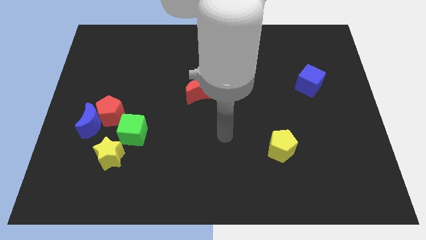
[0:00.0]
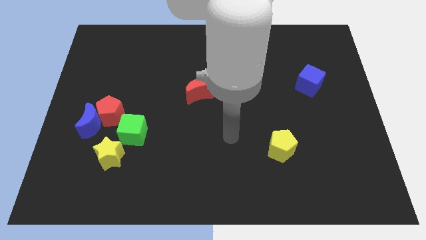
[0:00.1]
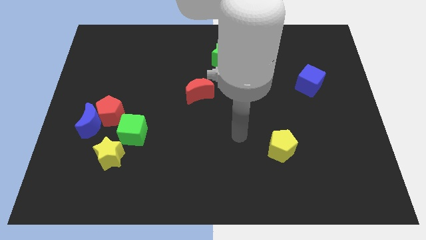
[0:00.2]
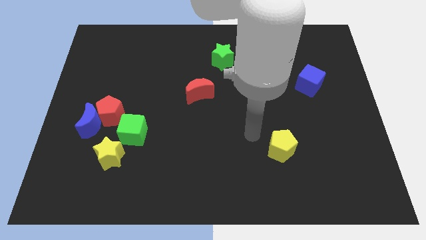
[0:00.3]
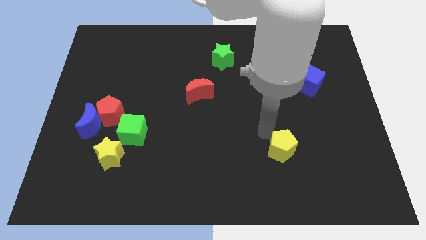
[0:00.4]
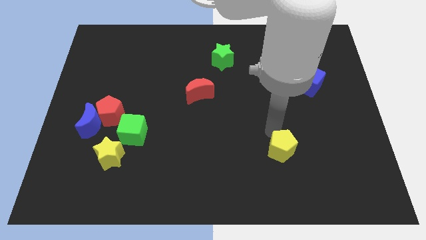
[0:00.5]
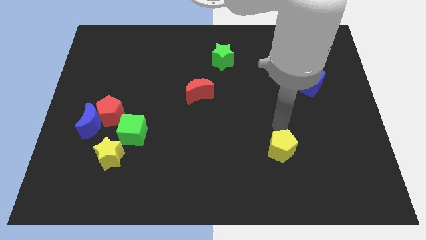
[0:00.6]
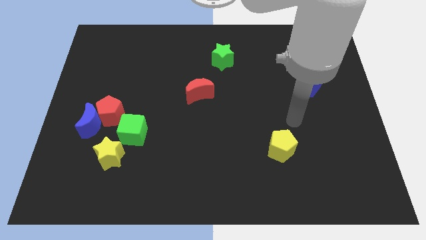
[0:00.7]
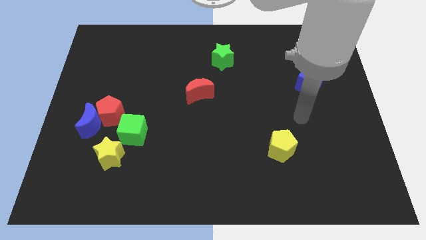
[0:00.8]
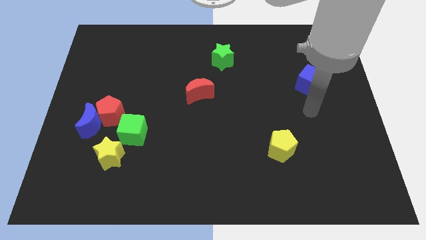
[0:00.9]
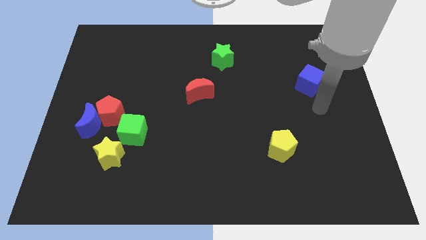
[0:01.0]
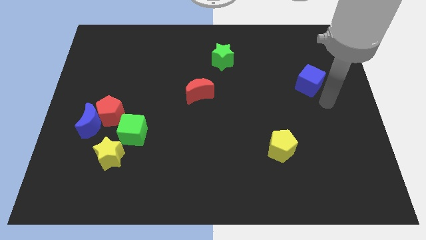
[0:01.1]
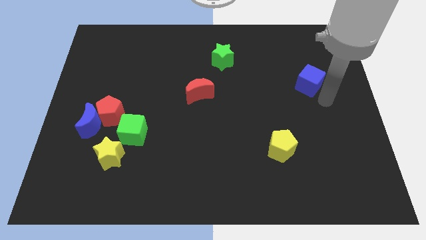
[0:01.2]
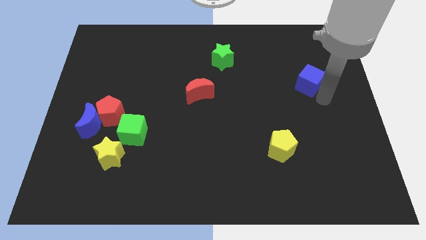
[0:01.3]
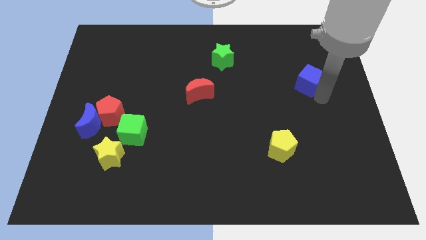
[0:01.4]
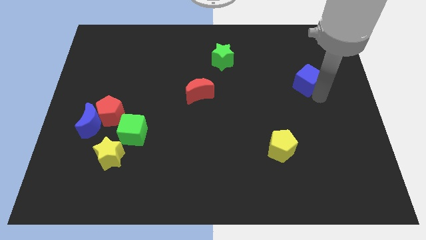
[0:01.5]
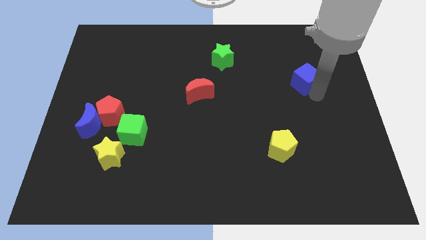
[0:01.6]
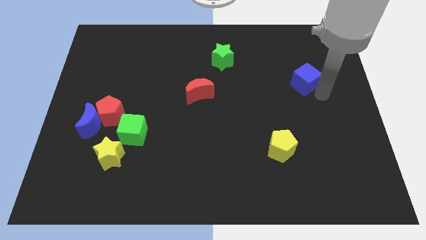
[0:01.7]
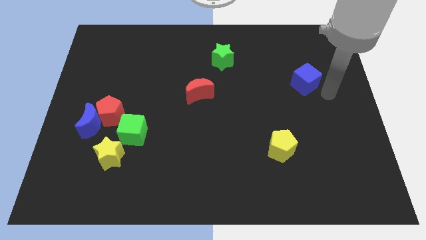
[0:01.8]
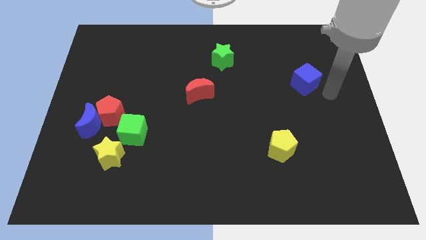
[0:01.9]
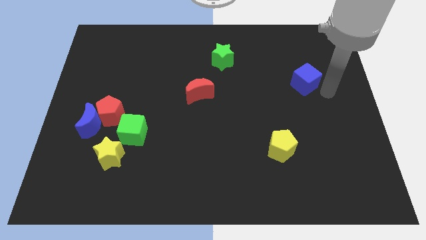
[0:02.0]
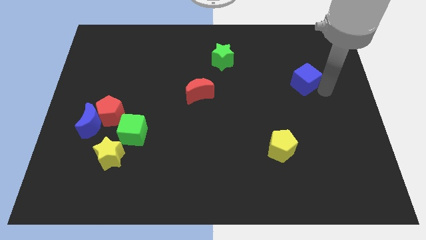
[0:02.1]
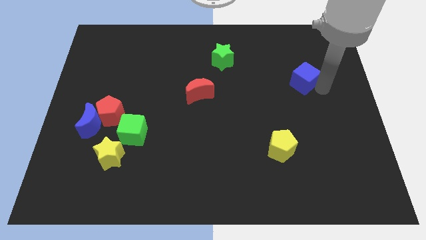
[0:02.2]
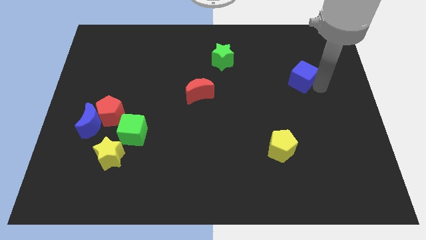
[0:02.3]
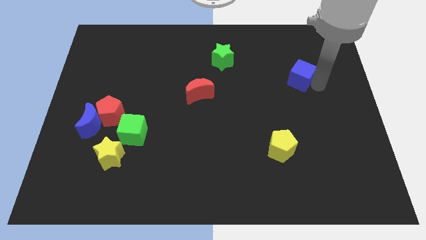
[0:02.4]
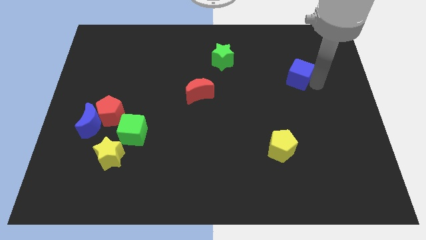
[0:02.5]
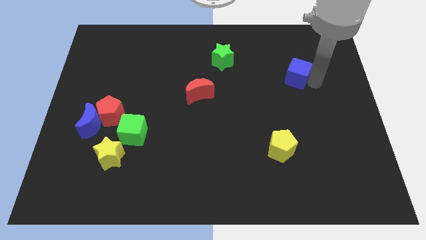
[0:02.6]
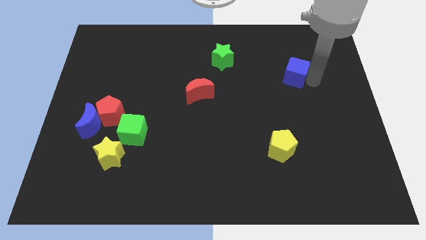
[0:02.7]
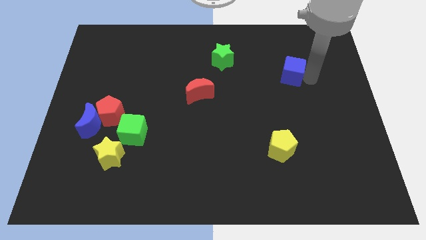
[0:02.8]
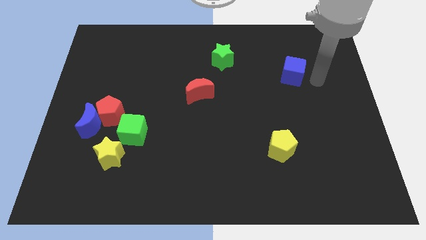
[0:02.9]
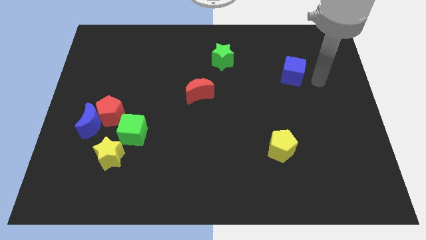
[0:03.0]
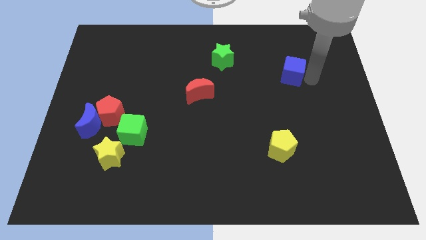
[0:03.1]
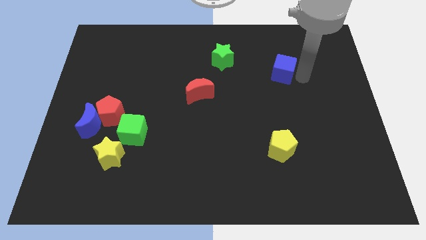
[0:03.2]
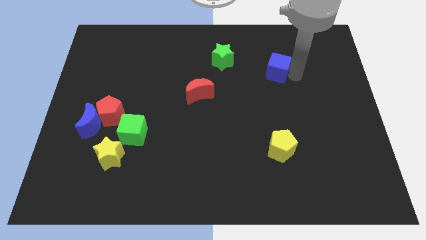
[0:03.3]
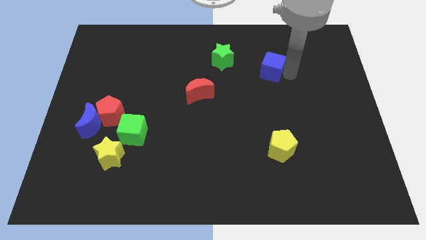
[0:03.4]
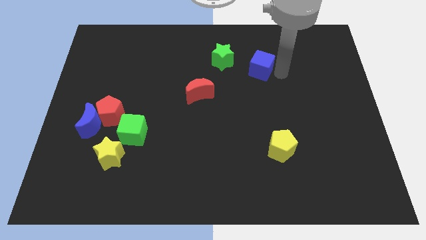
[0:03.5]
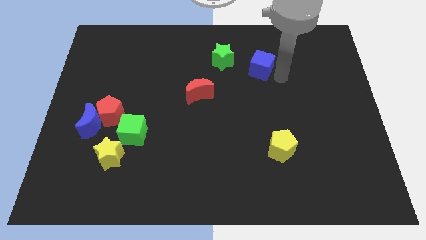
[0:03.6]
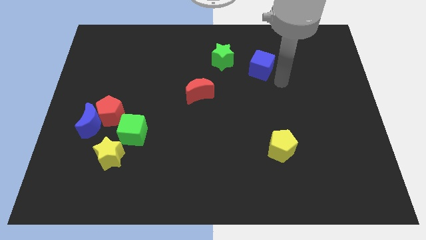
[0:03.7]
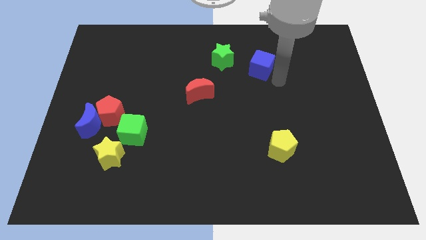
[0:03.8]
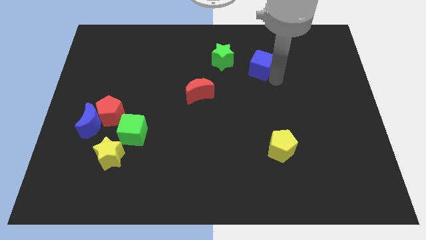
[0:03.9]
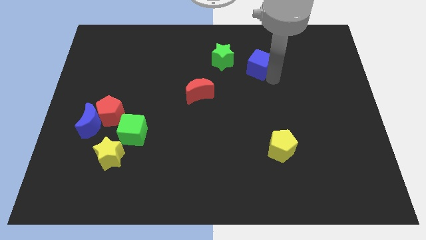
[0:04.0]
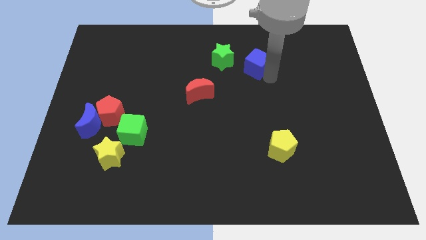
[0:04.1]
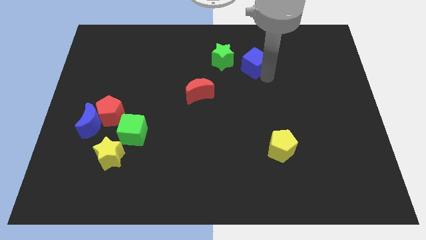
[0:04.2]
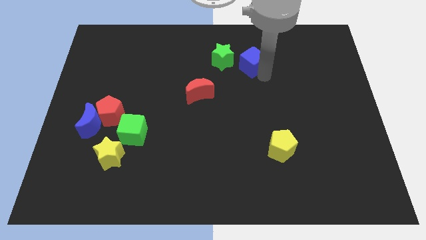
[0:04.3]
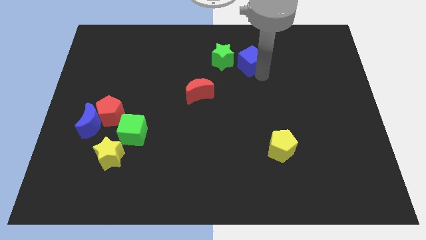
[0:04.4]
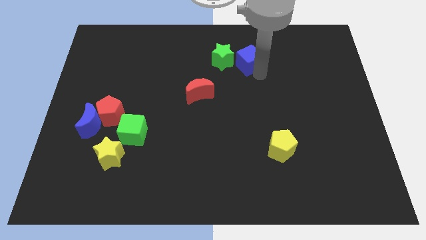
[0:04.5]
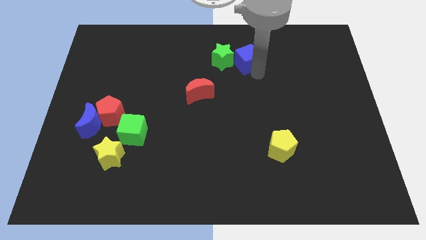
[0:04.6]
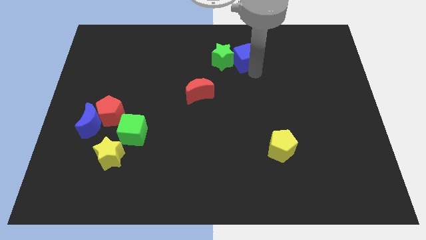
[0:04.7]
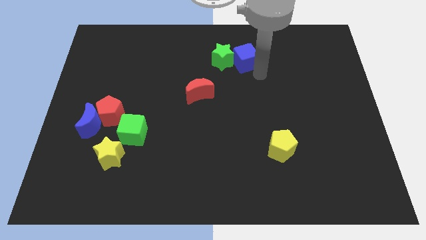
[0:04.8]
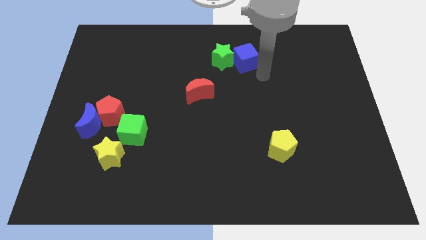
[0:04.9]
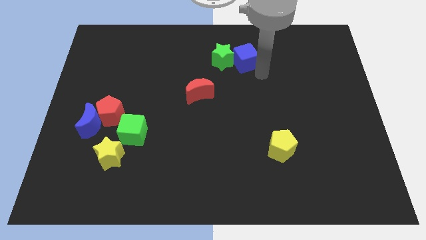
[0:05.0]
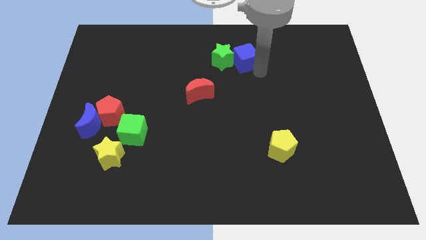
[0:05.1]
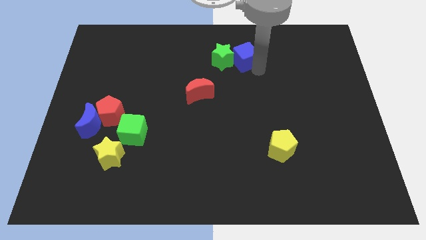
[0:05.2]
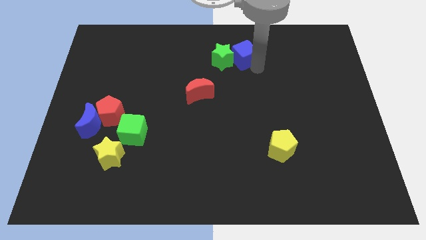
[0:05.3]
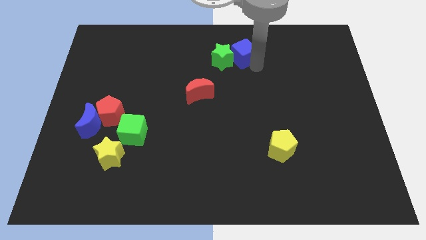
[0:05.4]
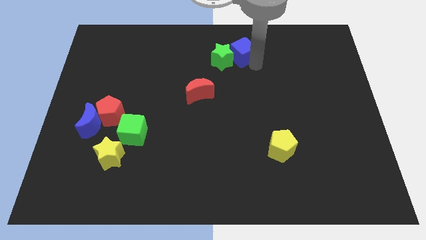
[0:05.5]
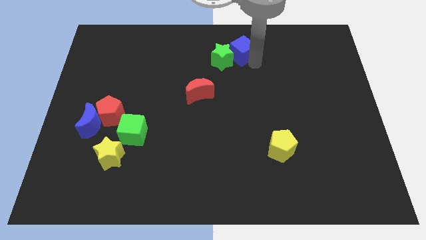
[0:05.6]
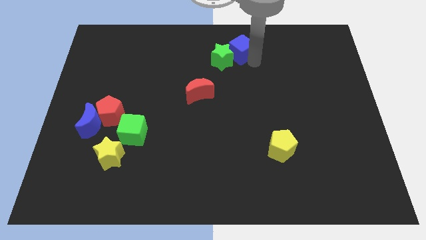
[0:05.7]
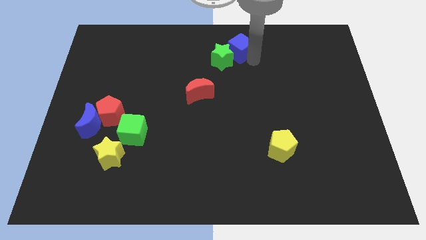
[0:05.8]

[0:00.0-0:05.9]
slide the blue cube to the top side

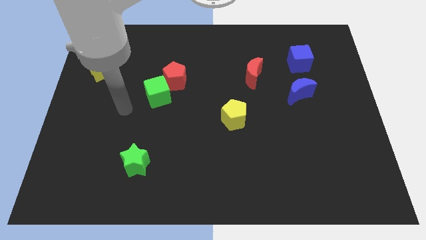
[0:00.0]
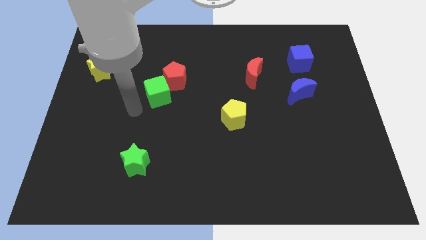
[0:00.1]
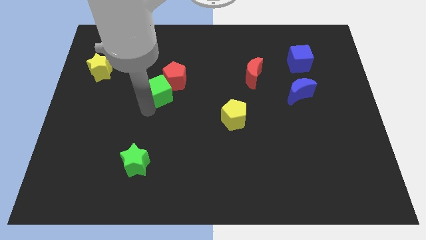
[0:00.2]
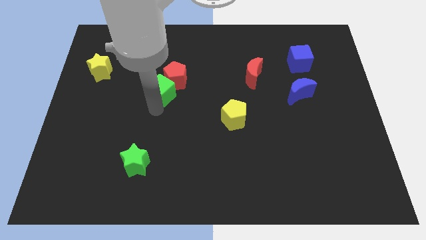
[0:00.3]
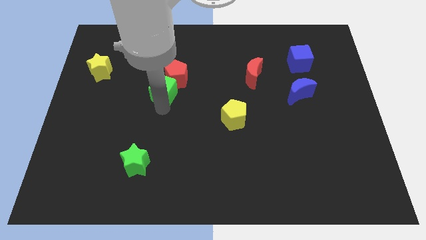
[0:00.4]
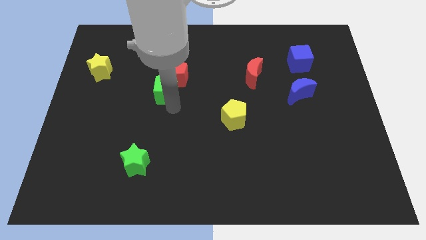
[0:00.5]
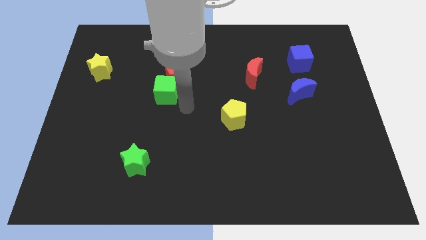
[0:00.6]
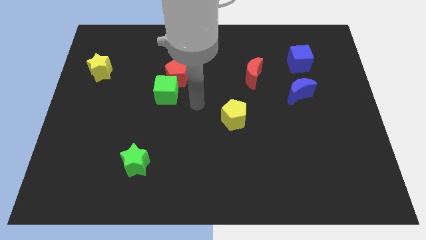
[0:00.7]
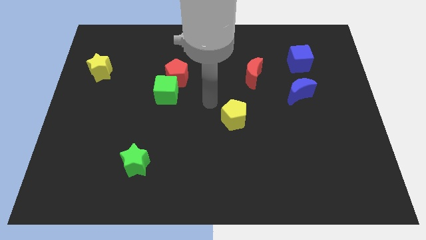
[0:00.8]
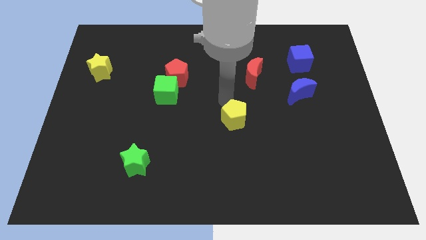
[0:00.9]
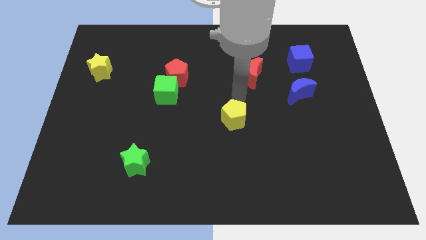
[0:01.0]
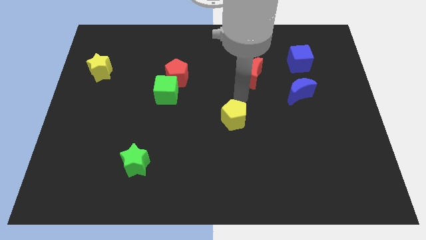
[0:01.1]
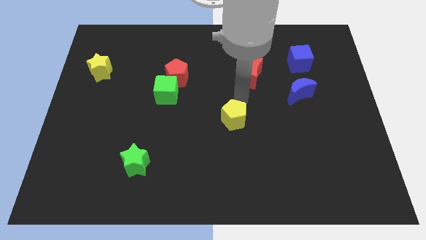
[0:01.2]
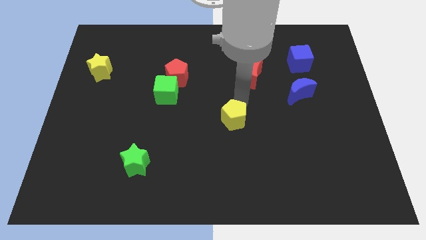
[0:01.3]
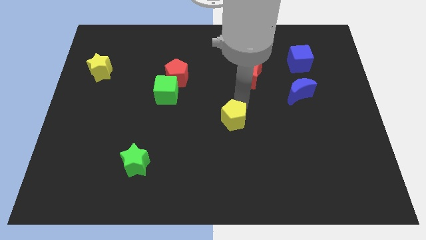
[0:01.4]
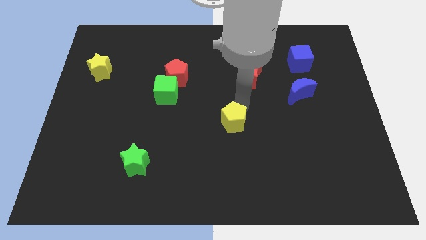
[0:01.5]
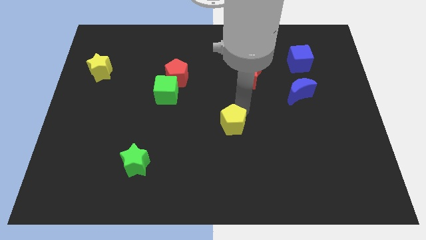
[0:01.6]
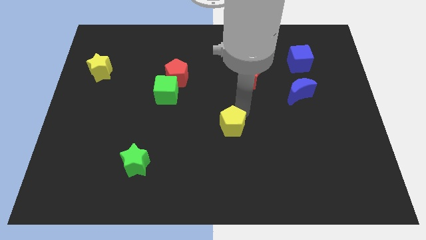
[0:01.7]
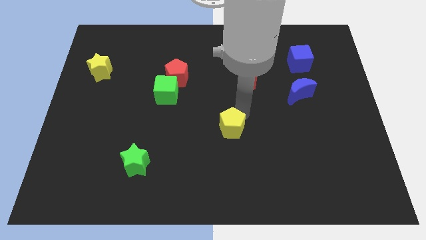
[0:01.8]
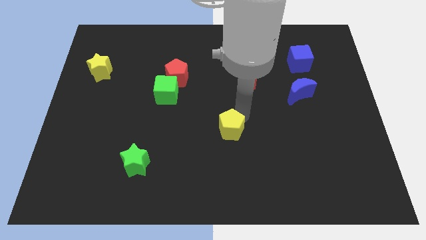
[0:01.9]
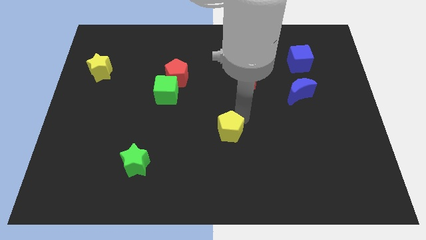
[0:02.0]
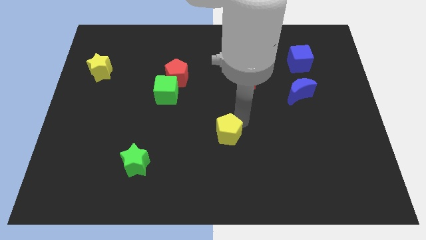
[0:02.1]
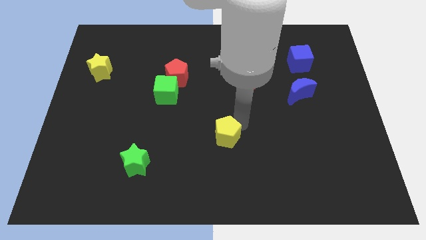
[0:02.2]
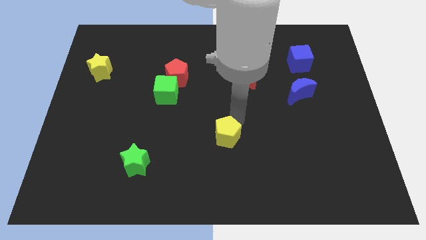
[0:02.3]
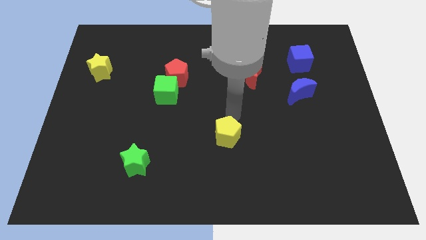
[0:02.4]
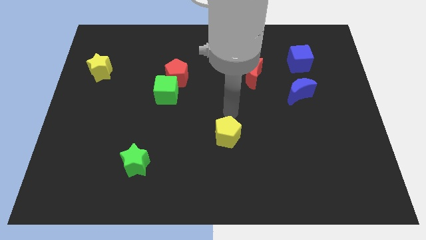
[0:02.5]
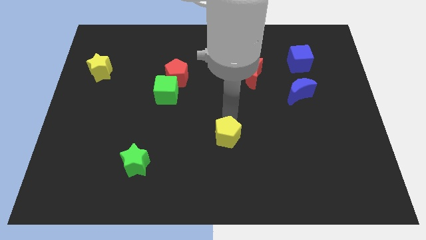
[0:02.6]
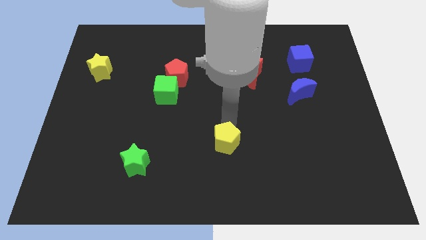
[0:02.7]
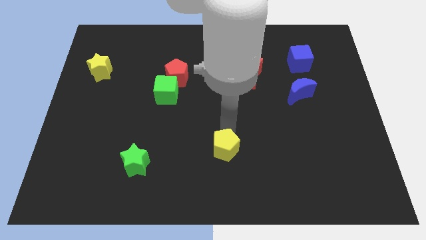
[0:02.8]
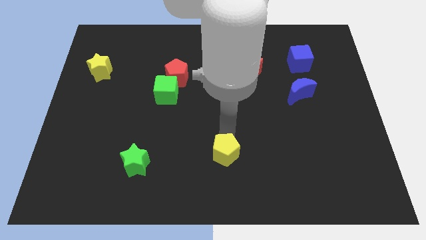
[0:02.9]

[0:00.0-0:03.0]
put the yellow pentagon to the bottom side
